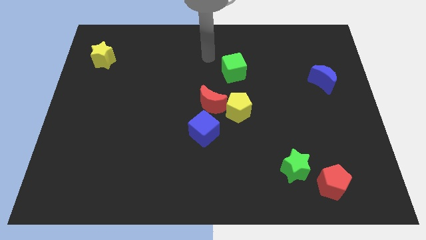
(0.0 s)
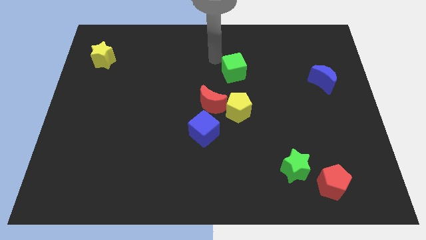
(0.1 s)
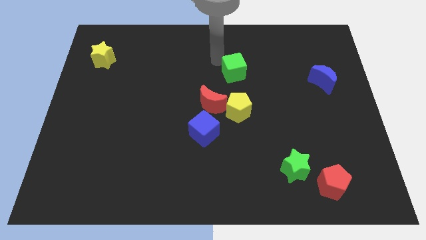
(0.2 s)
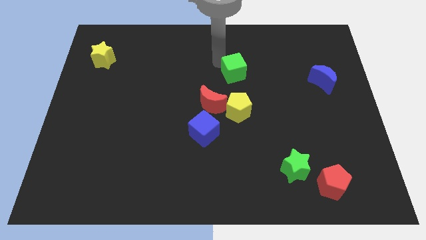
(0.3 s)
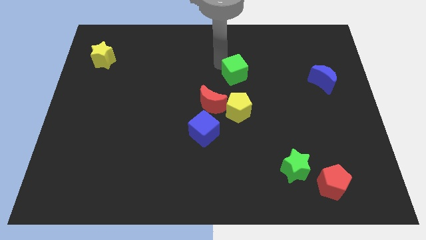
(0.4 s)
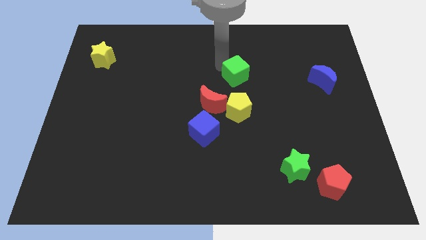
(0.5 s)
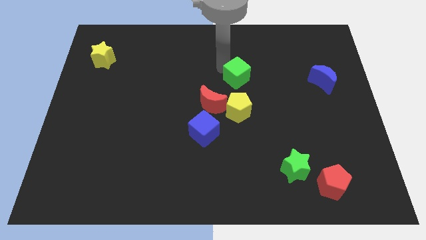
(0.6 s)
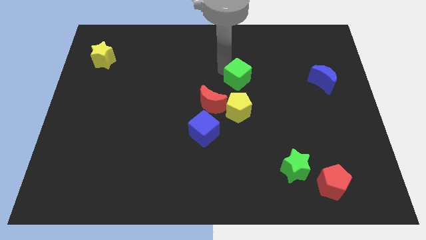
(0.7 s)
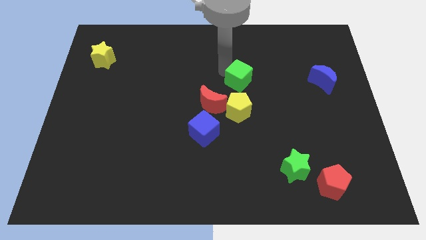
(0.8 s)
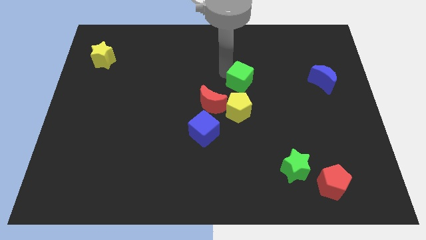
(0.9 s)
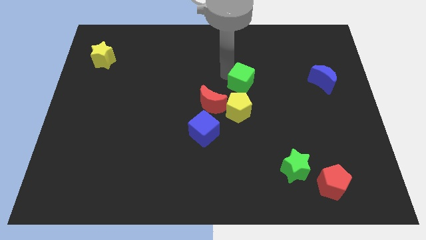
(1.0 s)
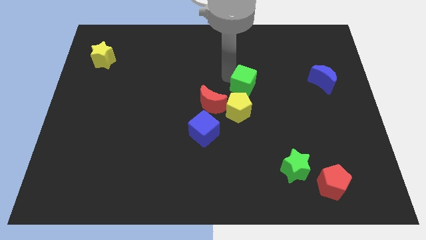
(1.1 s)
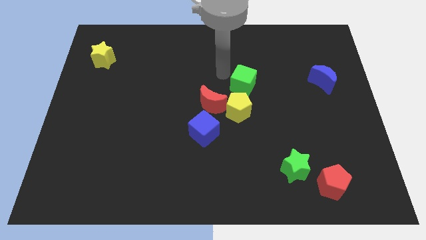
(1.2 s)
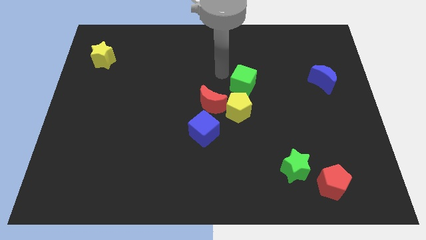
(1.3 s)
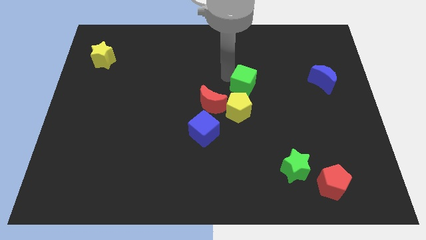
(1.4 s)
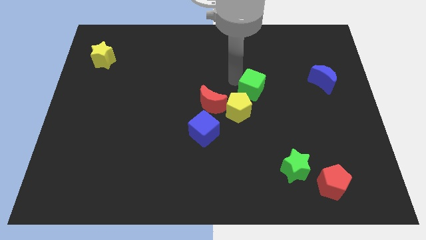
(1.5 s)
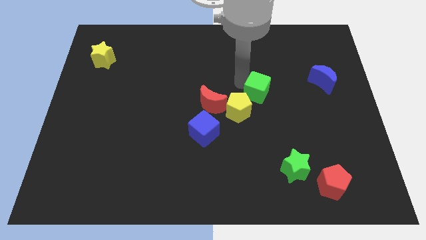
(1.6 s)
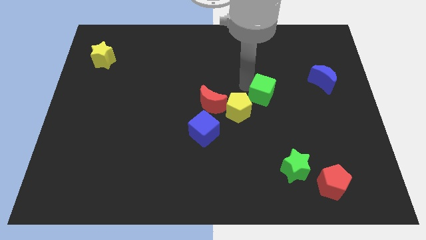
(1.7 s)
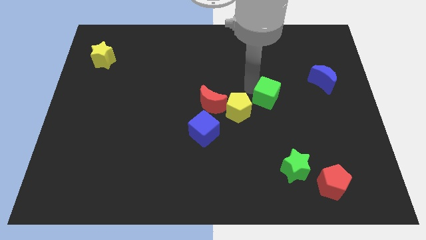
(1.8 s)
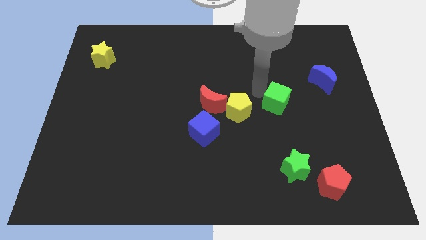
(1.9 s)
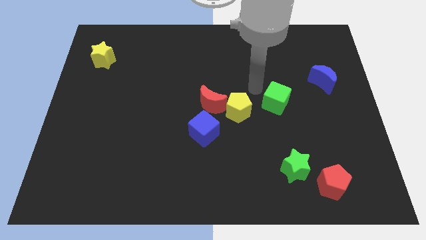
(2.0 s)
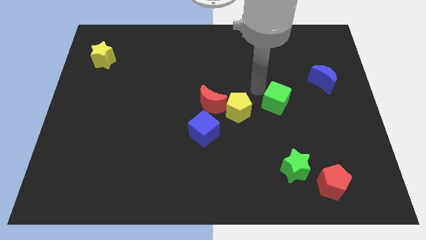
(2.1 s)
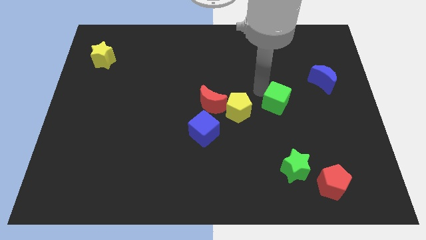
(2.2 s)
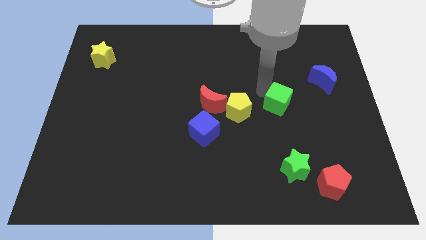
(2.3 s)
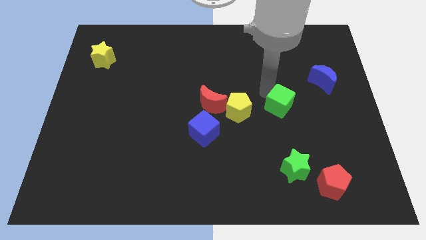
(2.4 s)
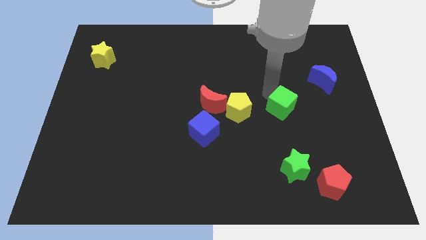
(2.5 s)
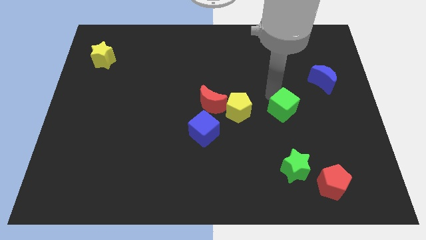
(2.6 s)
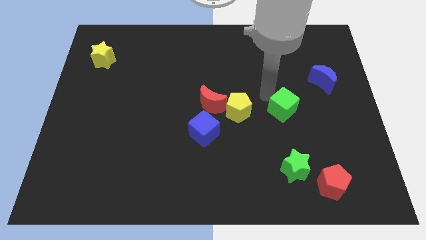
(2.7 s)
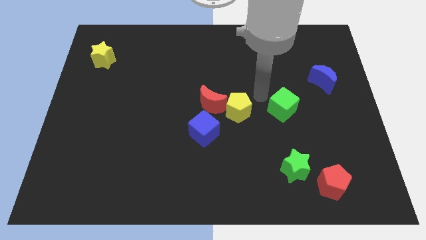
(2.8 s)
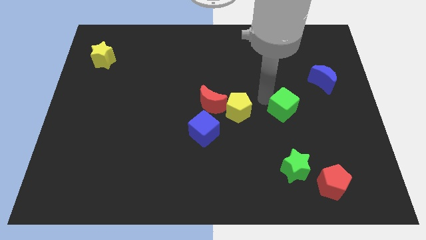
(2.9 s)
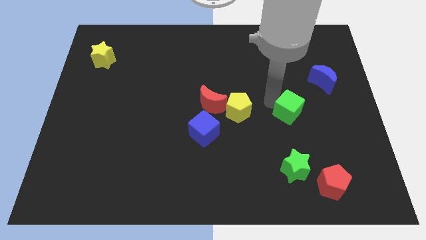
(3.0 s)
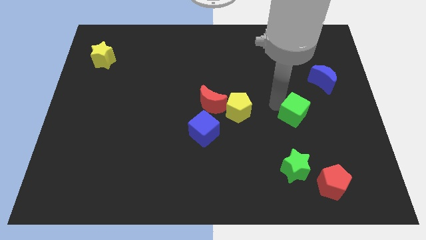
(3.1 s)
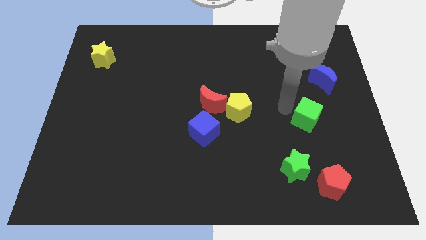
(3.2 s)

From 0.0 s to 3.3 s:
move the green cube diagonally down and to the right

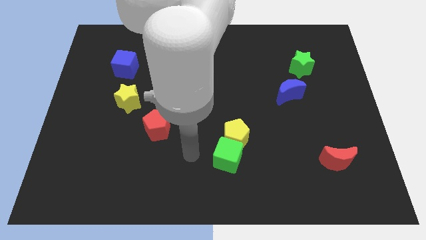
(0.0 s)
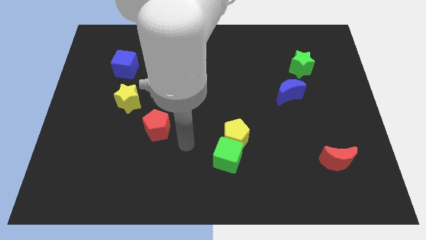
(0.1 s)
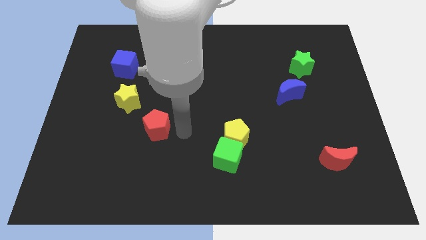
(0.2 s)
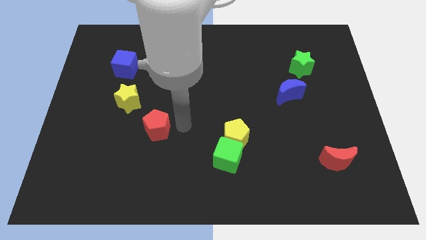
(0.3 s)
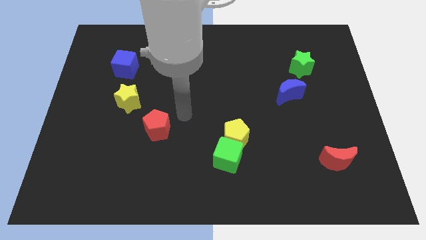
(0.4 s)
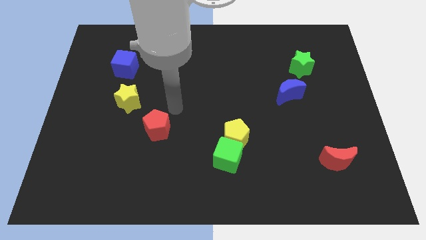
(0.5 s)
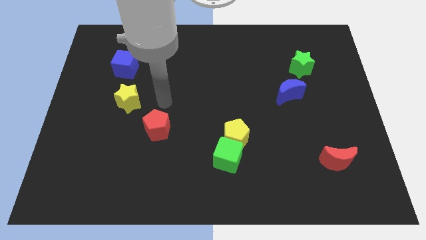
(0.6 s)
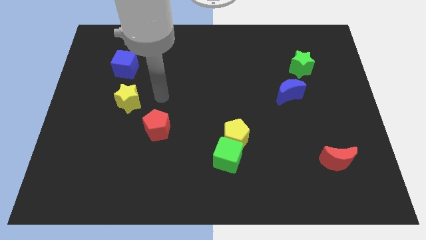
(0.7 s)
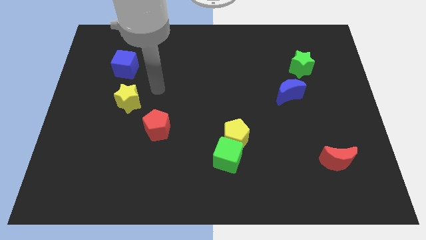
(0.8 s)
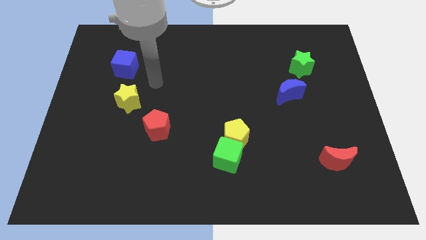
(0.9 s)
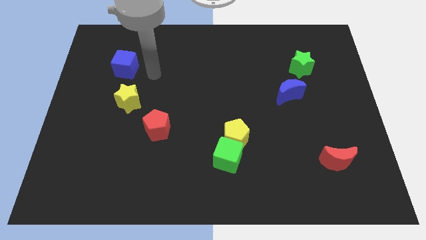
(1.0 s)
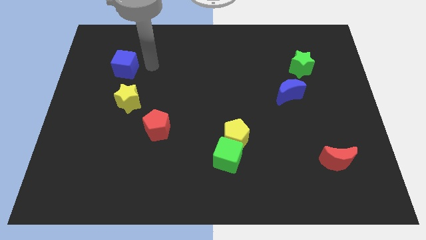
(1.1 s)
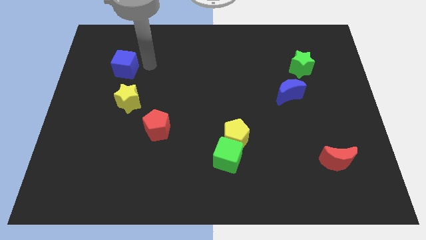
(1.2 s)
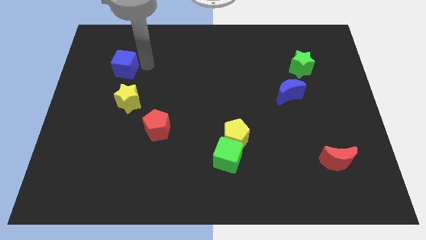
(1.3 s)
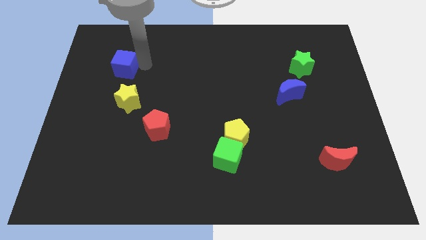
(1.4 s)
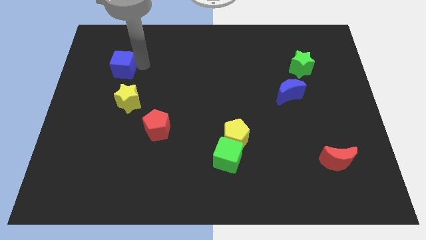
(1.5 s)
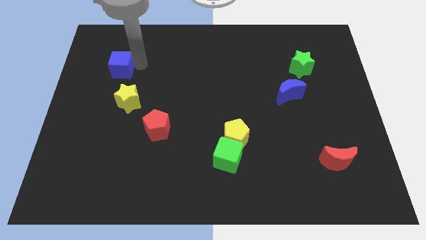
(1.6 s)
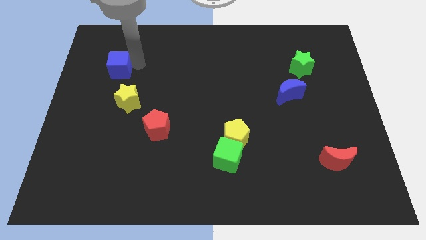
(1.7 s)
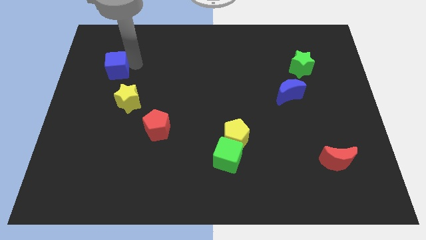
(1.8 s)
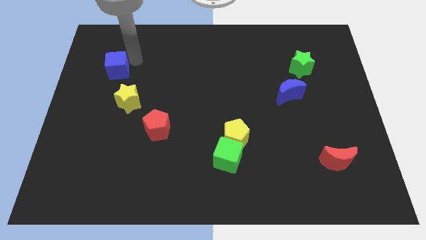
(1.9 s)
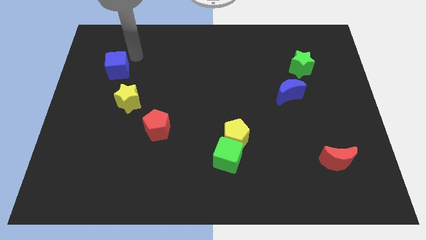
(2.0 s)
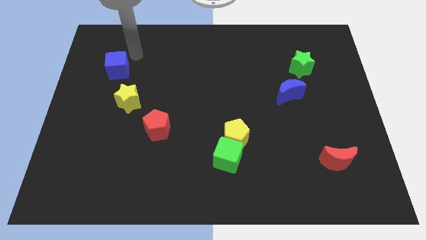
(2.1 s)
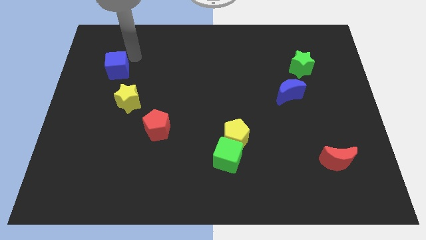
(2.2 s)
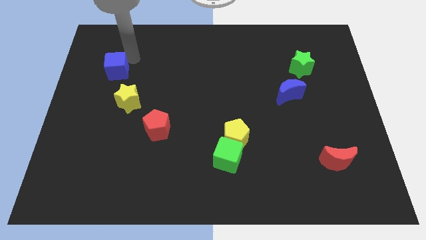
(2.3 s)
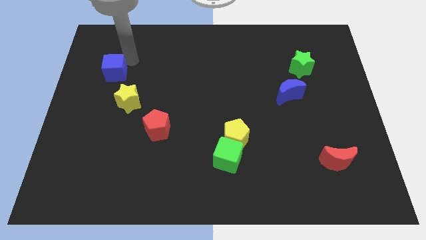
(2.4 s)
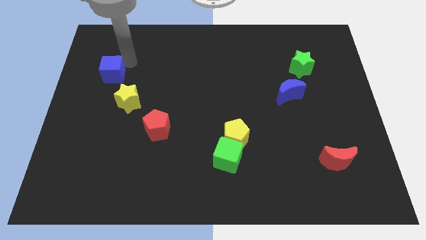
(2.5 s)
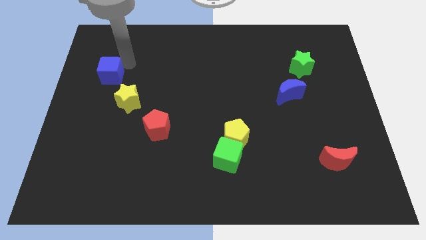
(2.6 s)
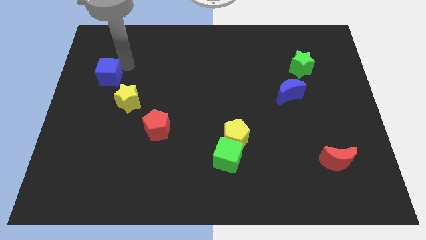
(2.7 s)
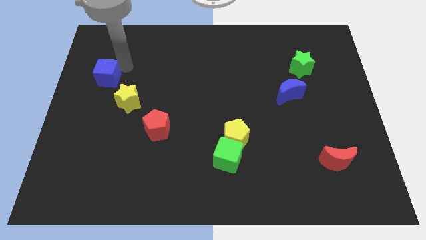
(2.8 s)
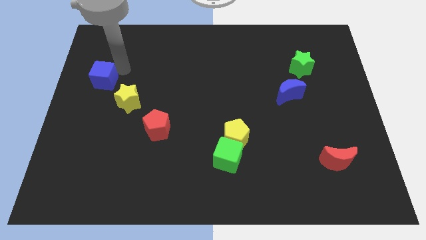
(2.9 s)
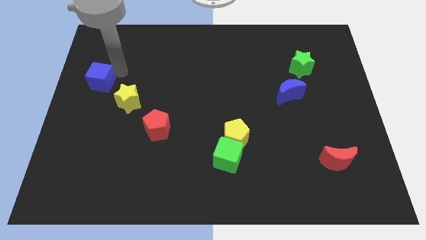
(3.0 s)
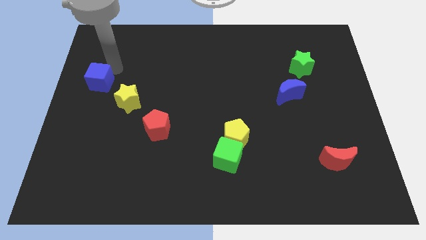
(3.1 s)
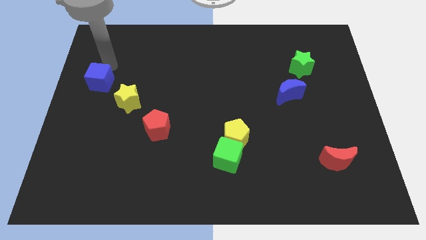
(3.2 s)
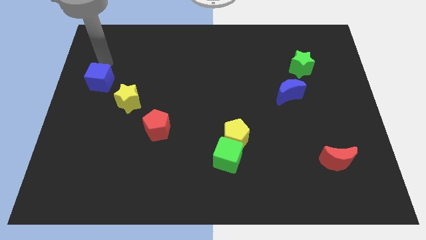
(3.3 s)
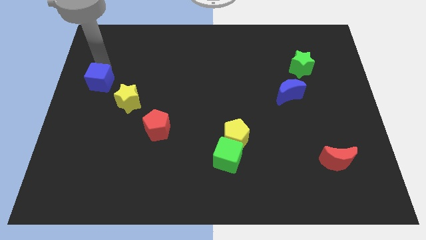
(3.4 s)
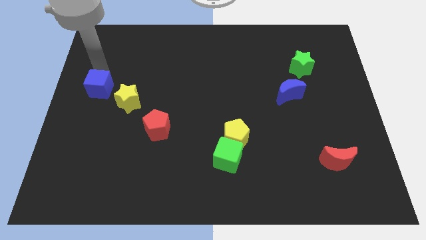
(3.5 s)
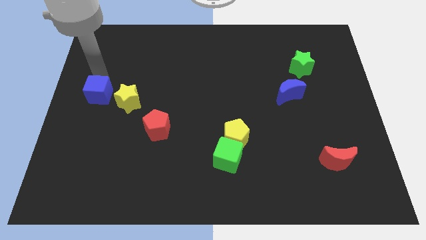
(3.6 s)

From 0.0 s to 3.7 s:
slide the blue cube down a bit

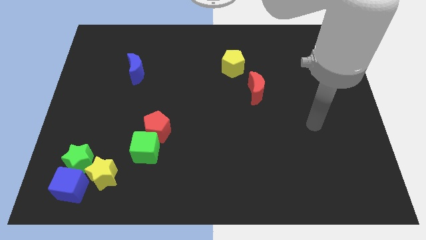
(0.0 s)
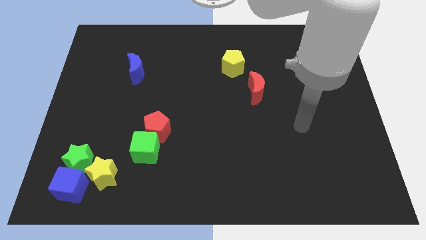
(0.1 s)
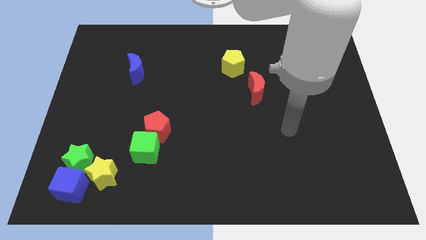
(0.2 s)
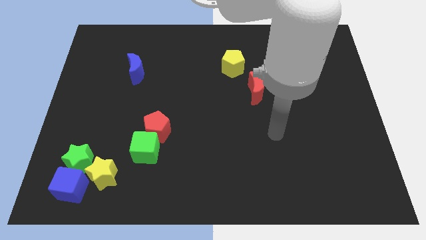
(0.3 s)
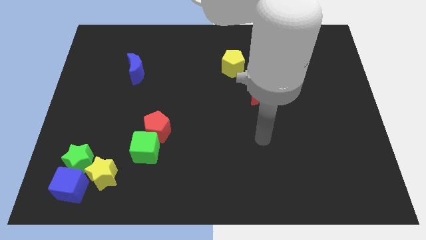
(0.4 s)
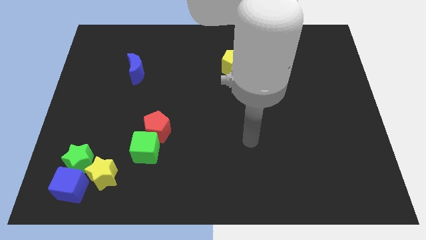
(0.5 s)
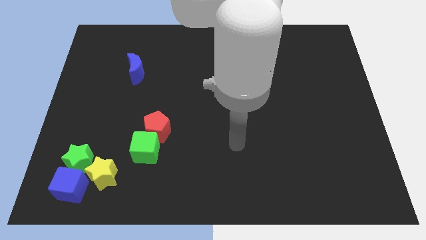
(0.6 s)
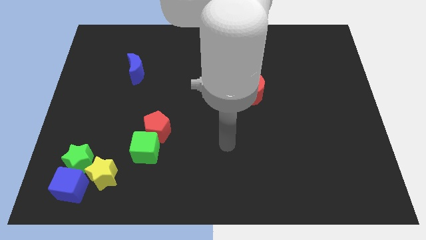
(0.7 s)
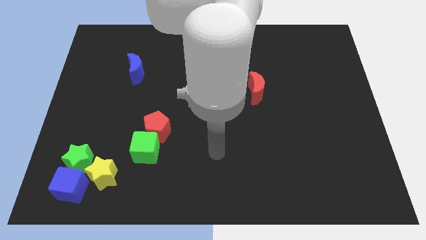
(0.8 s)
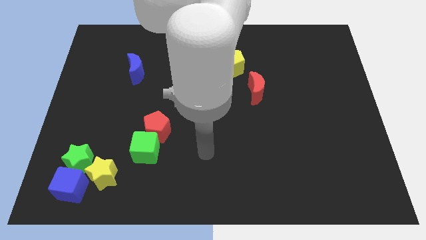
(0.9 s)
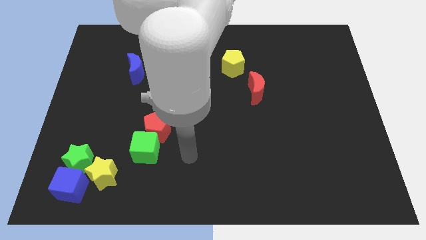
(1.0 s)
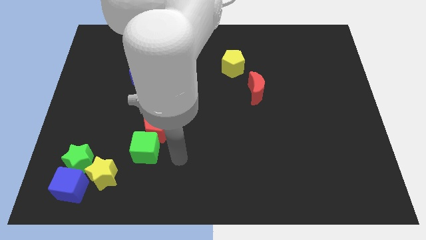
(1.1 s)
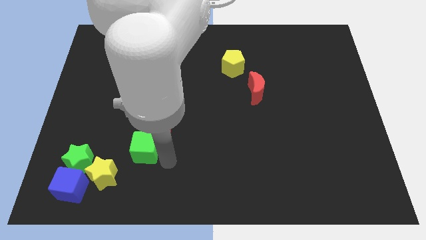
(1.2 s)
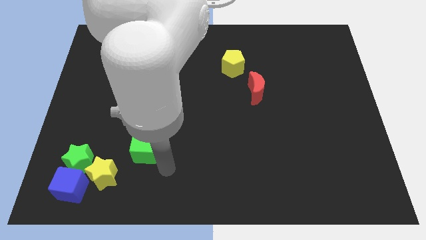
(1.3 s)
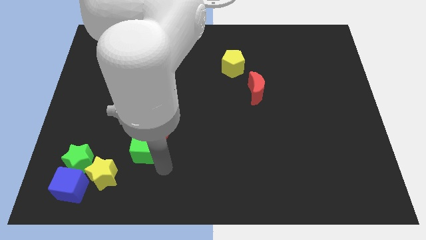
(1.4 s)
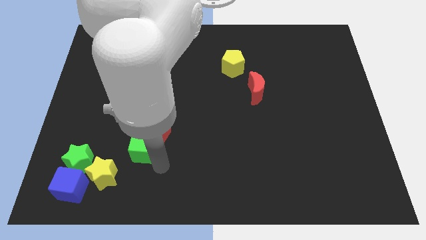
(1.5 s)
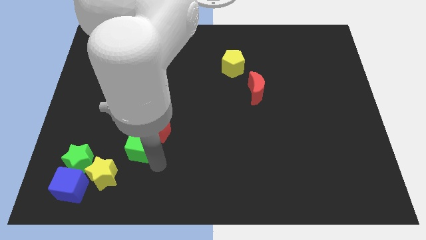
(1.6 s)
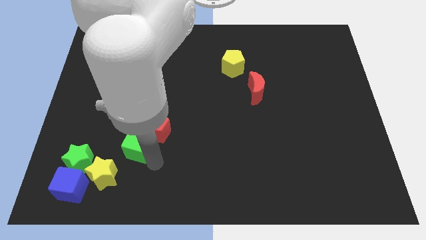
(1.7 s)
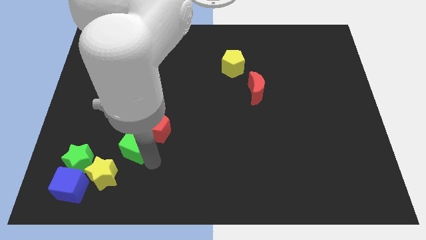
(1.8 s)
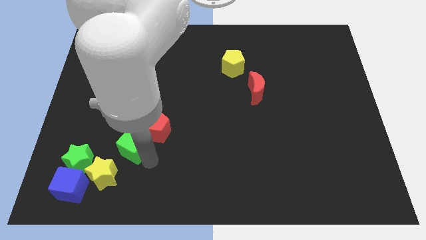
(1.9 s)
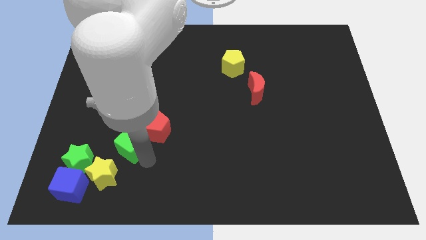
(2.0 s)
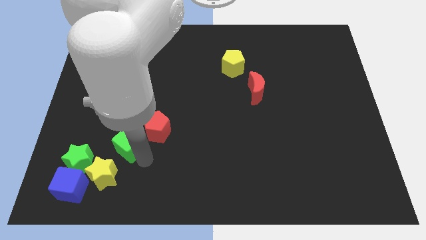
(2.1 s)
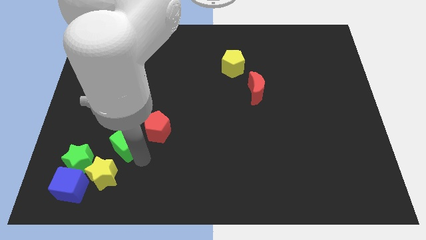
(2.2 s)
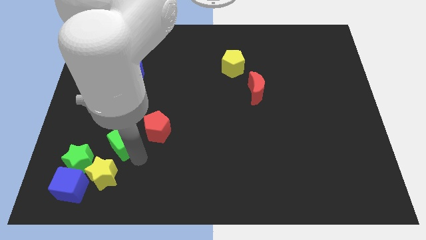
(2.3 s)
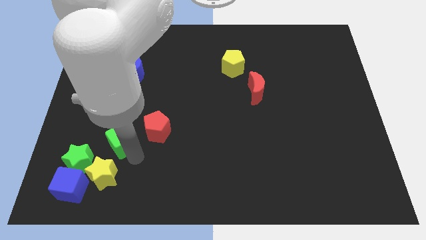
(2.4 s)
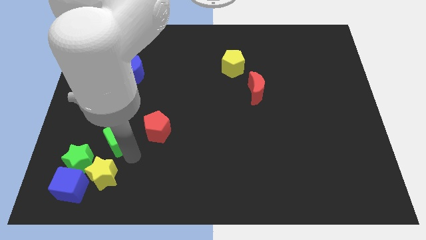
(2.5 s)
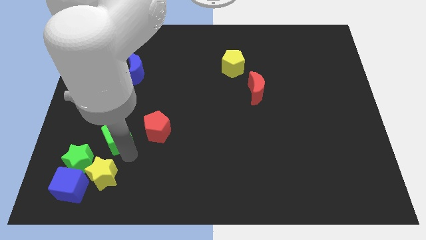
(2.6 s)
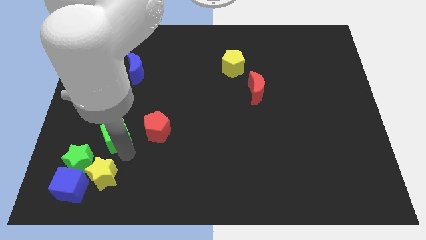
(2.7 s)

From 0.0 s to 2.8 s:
slide the green cube a little bit upwards and left
